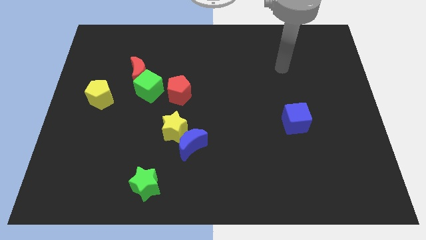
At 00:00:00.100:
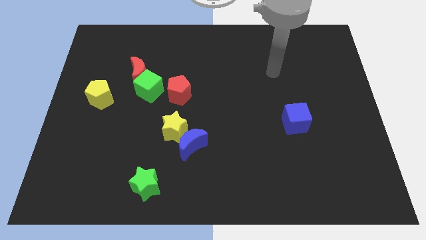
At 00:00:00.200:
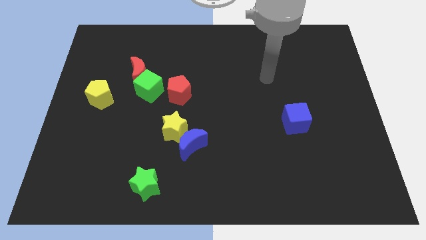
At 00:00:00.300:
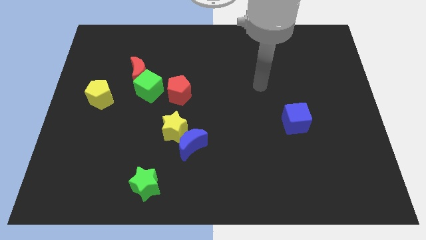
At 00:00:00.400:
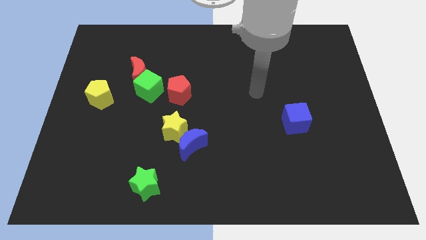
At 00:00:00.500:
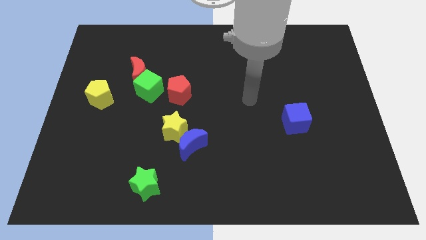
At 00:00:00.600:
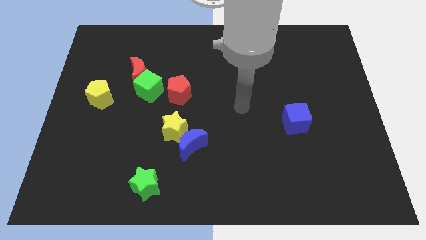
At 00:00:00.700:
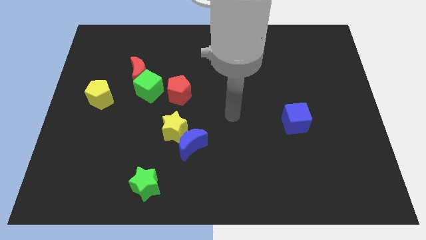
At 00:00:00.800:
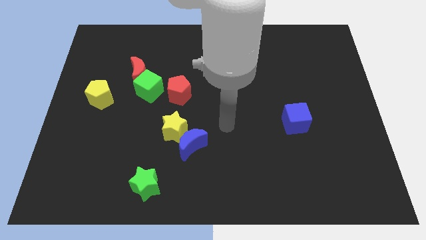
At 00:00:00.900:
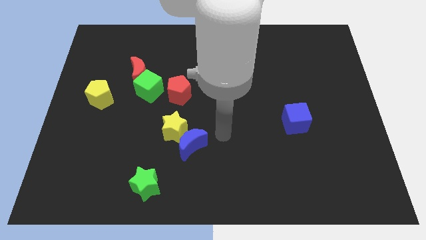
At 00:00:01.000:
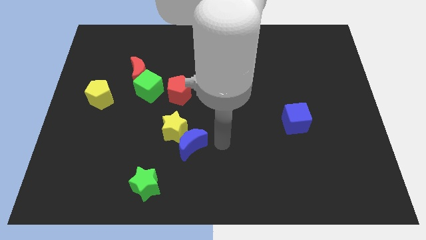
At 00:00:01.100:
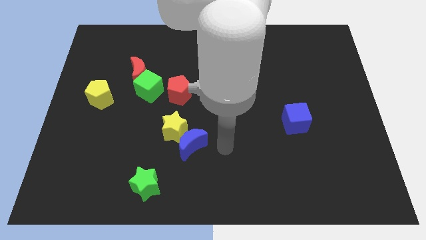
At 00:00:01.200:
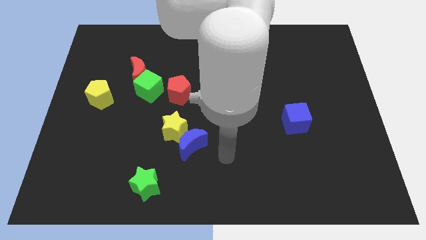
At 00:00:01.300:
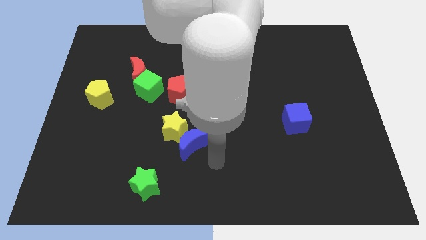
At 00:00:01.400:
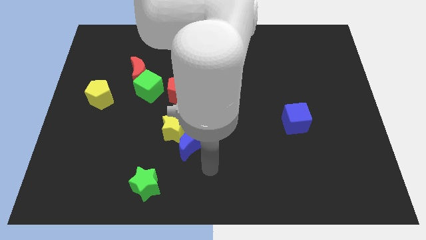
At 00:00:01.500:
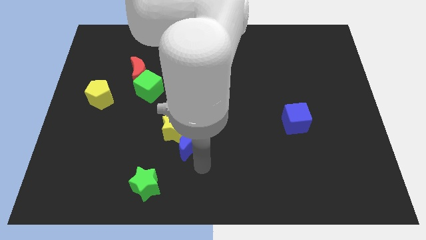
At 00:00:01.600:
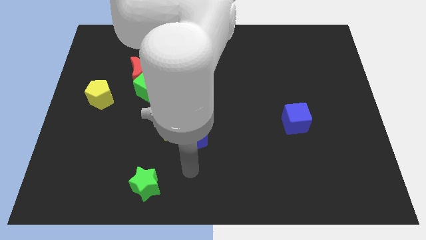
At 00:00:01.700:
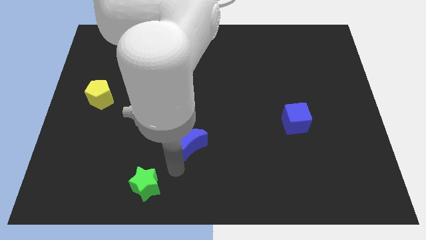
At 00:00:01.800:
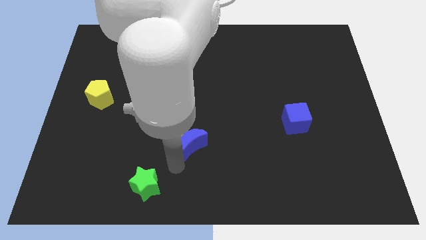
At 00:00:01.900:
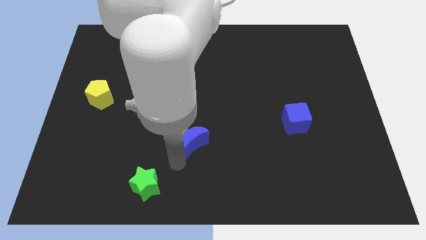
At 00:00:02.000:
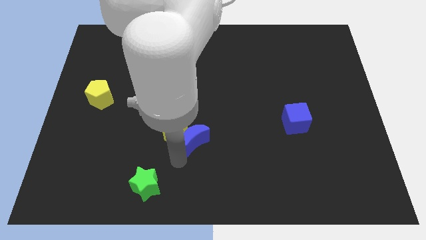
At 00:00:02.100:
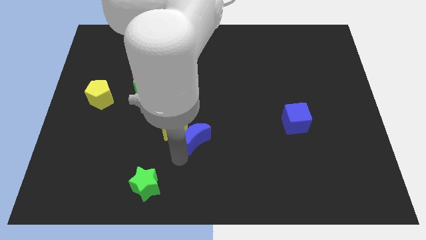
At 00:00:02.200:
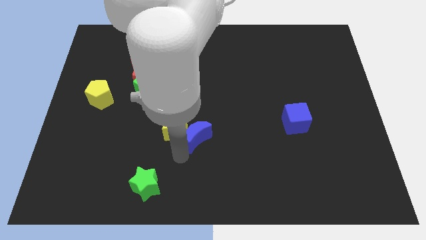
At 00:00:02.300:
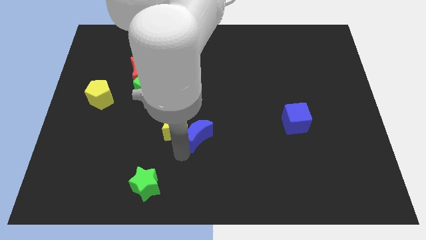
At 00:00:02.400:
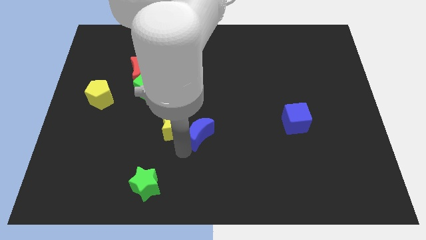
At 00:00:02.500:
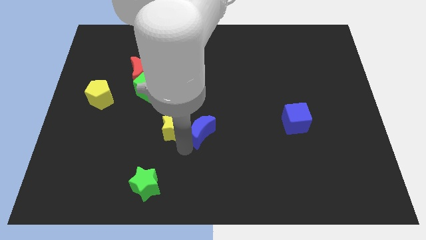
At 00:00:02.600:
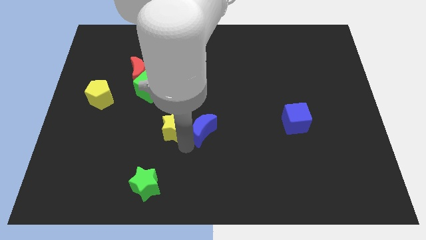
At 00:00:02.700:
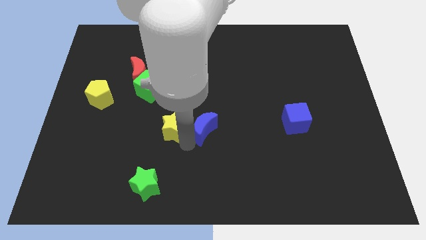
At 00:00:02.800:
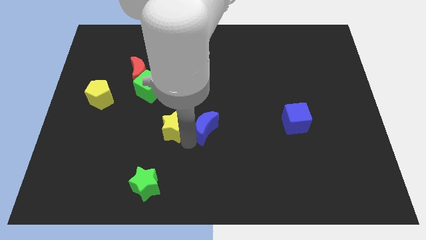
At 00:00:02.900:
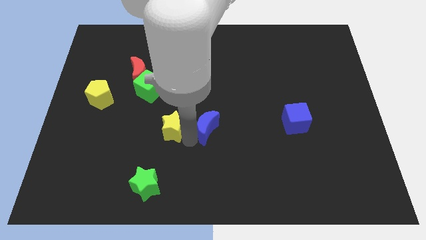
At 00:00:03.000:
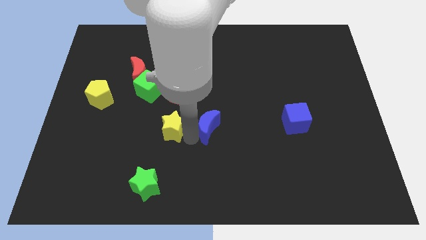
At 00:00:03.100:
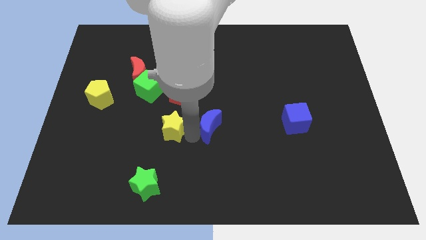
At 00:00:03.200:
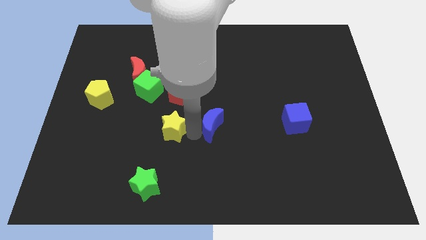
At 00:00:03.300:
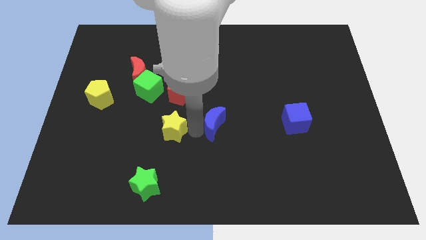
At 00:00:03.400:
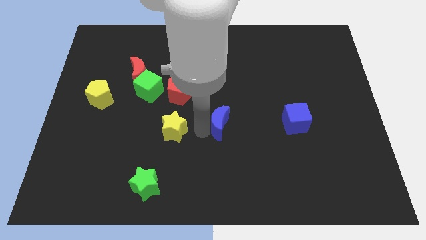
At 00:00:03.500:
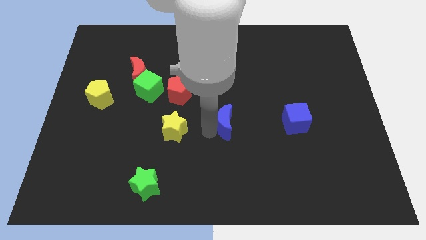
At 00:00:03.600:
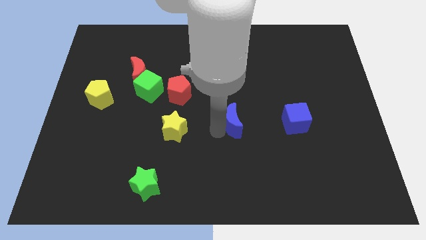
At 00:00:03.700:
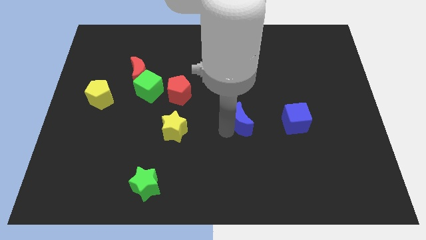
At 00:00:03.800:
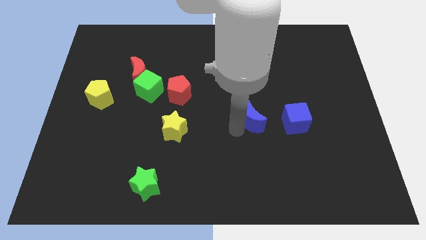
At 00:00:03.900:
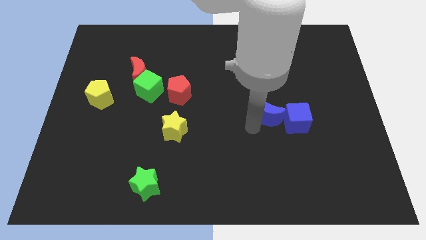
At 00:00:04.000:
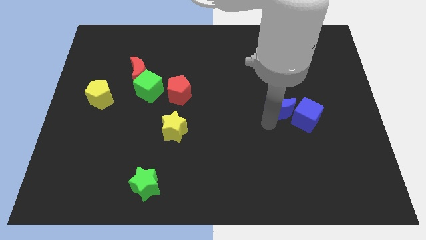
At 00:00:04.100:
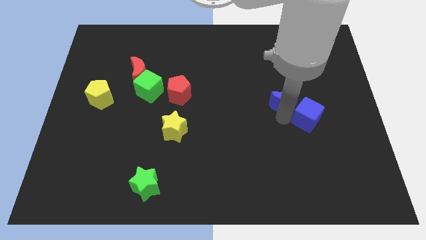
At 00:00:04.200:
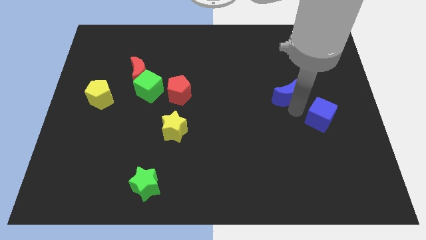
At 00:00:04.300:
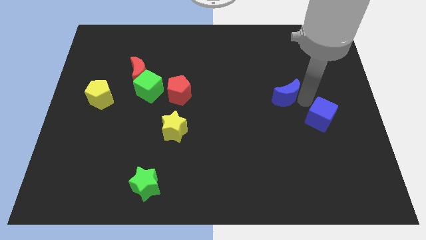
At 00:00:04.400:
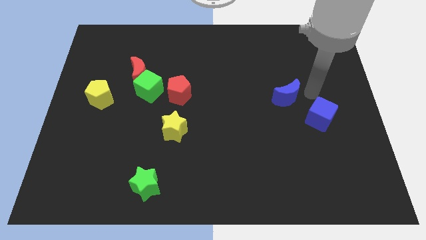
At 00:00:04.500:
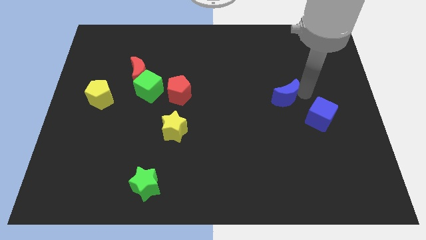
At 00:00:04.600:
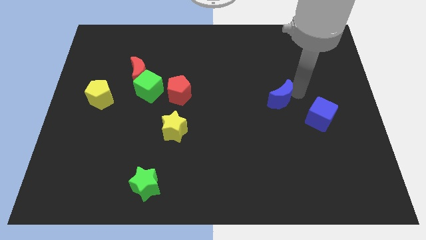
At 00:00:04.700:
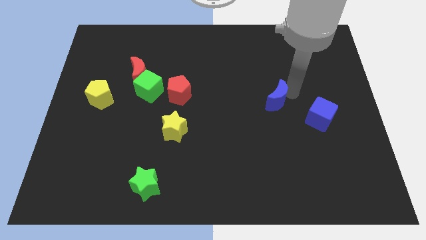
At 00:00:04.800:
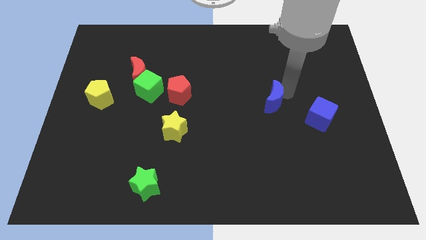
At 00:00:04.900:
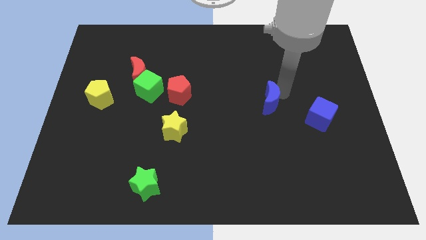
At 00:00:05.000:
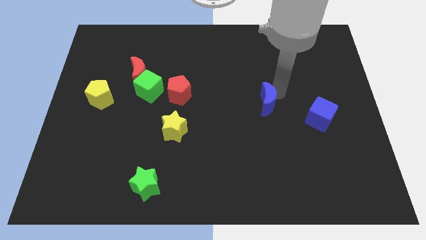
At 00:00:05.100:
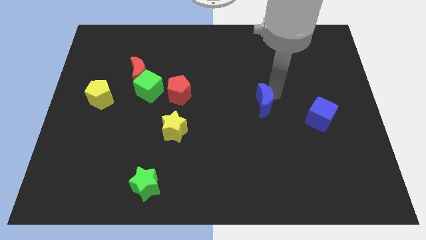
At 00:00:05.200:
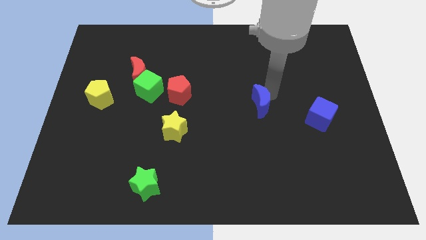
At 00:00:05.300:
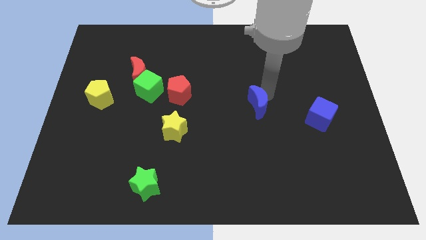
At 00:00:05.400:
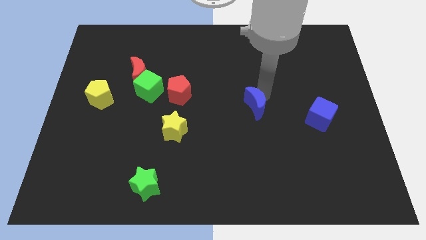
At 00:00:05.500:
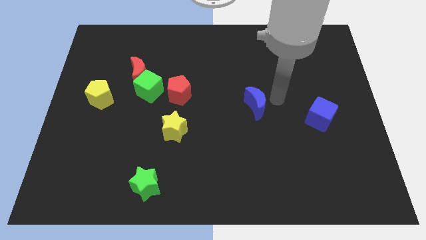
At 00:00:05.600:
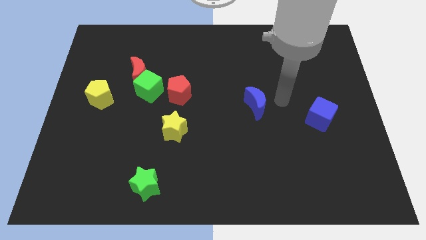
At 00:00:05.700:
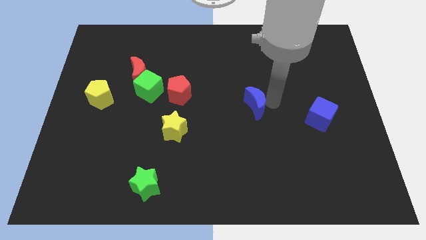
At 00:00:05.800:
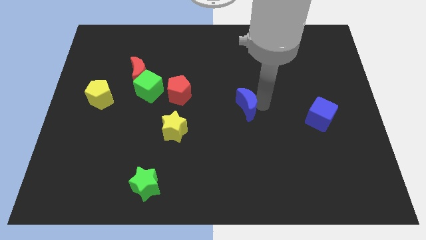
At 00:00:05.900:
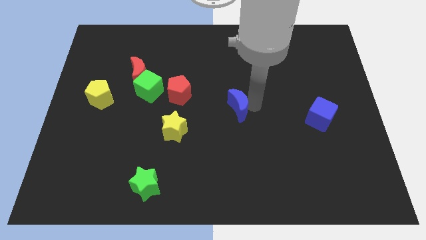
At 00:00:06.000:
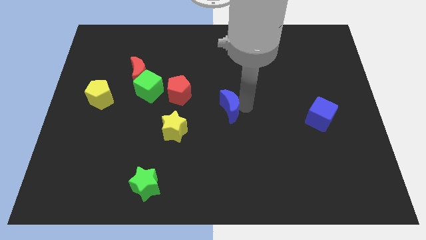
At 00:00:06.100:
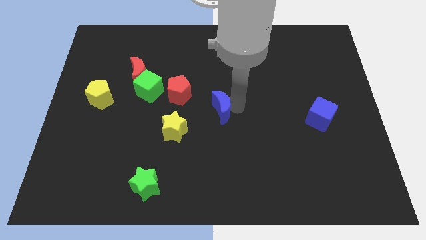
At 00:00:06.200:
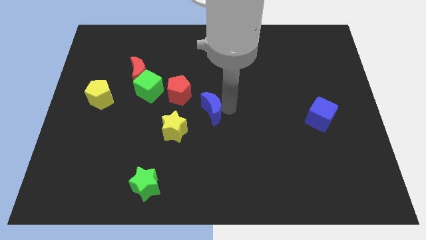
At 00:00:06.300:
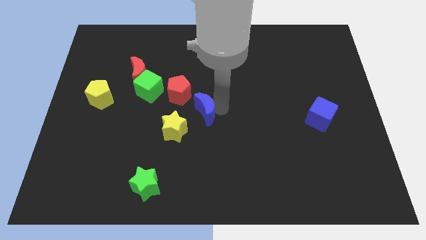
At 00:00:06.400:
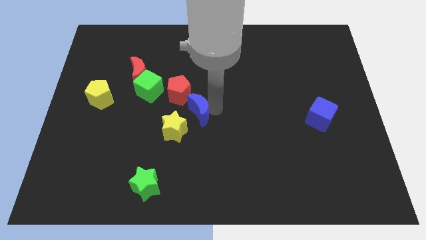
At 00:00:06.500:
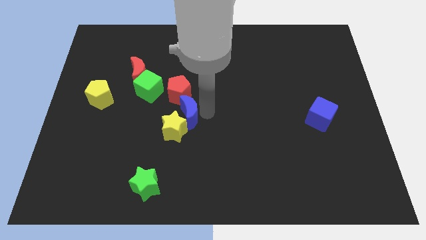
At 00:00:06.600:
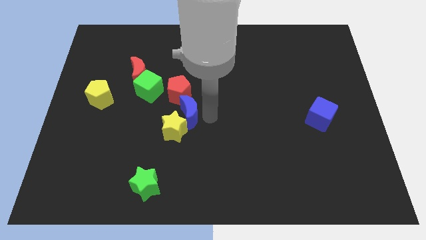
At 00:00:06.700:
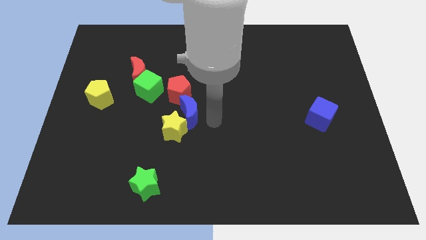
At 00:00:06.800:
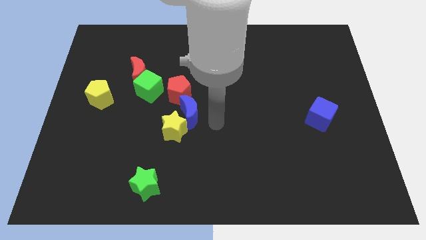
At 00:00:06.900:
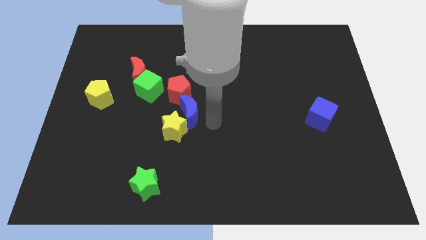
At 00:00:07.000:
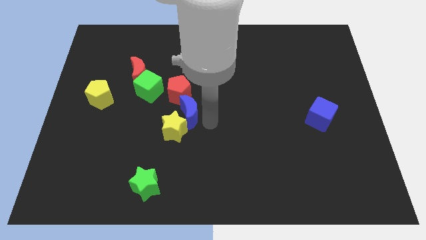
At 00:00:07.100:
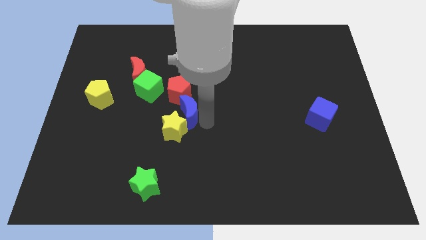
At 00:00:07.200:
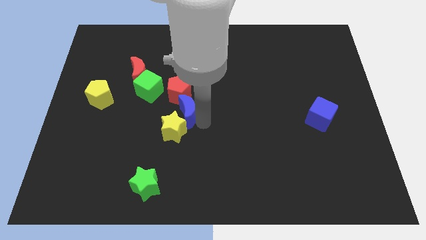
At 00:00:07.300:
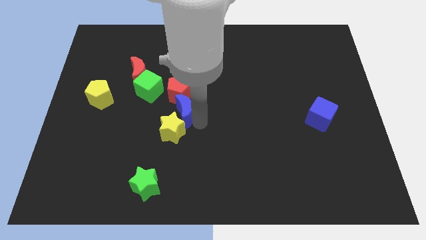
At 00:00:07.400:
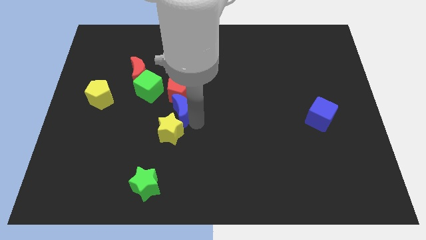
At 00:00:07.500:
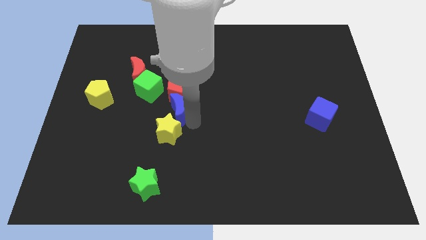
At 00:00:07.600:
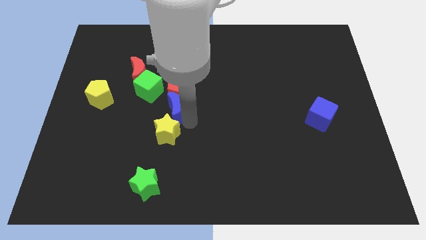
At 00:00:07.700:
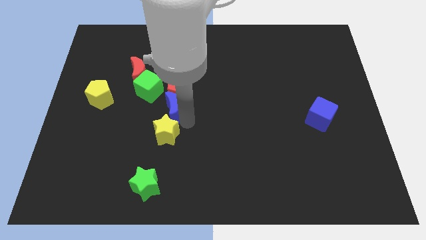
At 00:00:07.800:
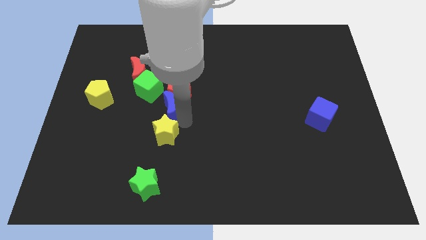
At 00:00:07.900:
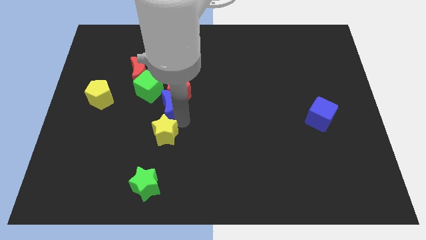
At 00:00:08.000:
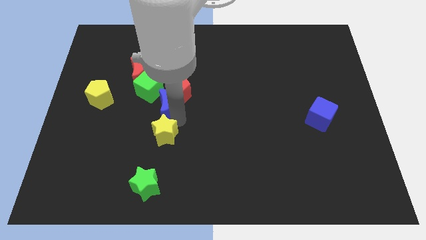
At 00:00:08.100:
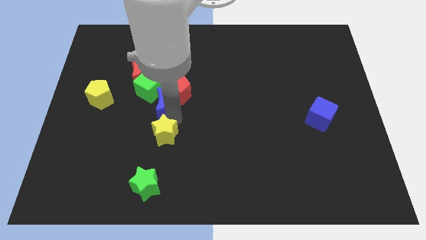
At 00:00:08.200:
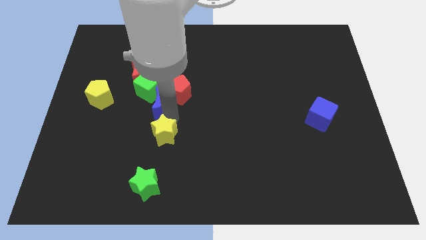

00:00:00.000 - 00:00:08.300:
move the blue moon towards the green cube
